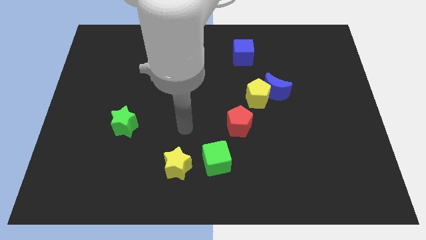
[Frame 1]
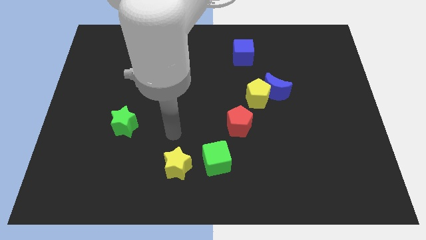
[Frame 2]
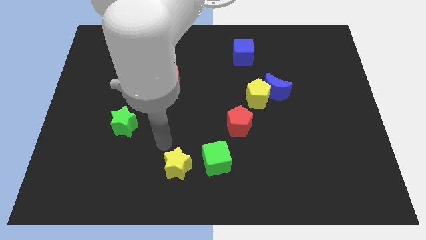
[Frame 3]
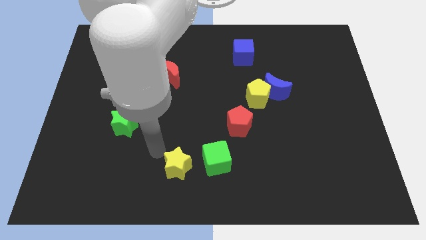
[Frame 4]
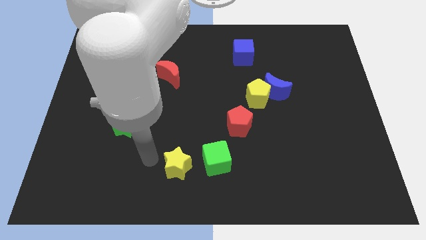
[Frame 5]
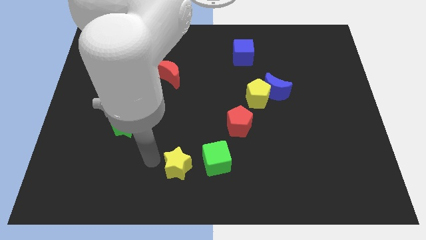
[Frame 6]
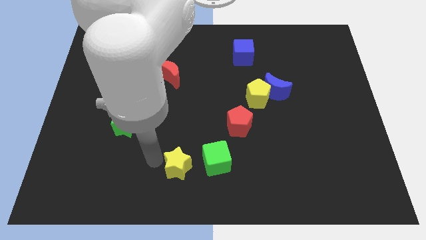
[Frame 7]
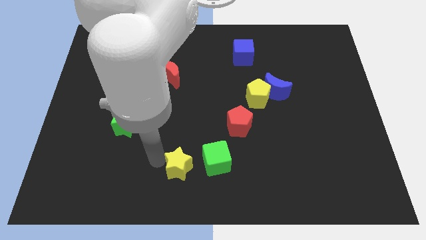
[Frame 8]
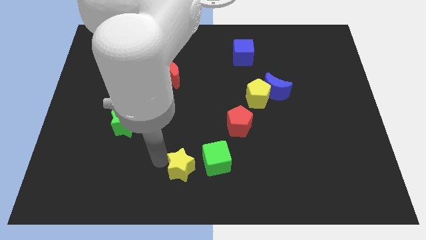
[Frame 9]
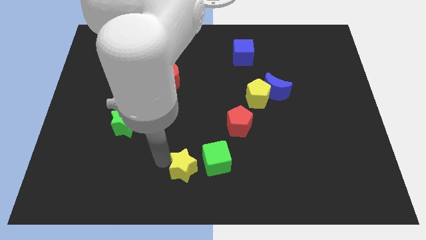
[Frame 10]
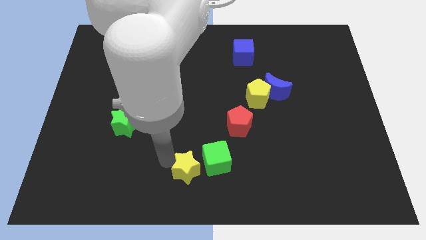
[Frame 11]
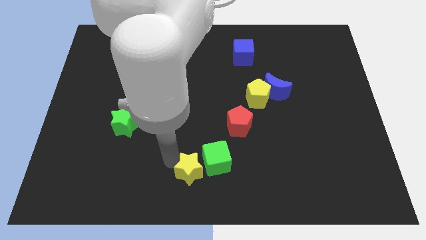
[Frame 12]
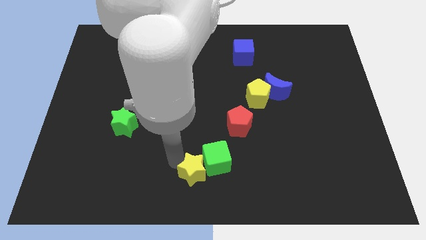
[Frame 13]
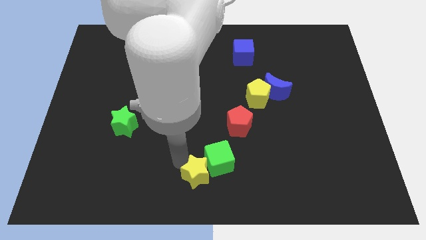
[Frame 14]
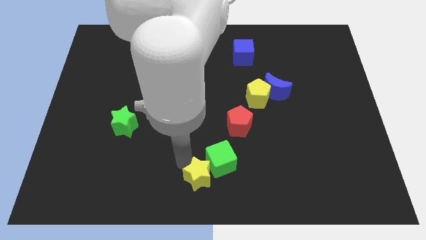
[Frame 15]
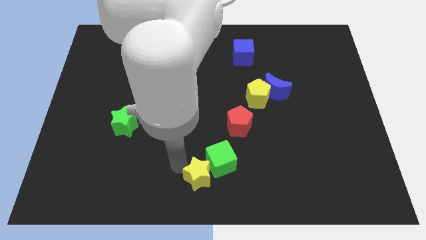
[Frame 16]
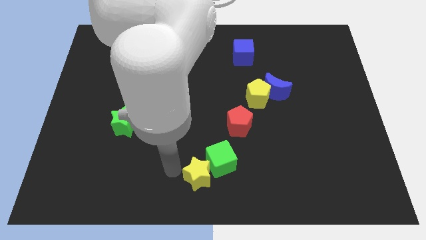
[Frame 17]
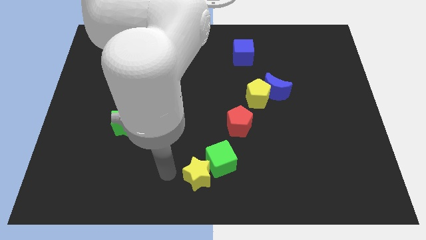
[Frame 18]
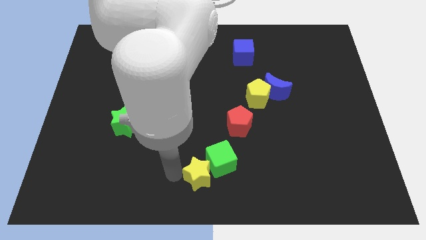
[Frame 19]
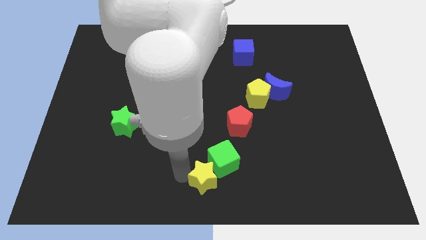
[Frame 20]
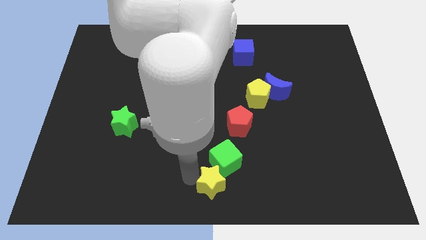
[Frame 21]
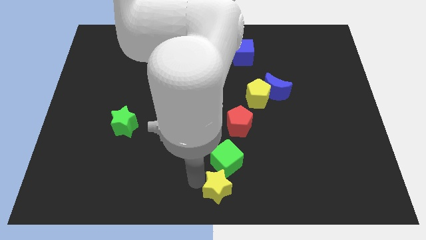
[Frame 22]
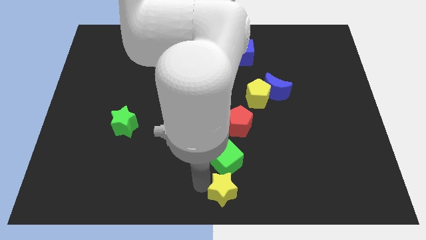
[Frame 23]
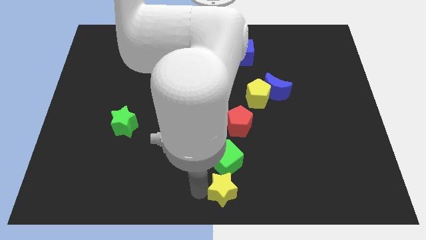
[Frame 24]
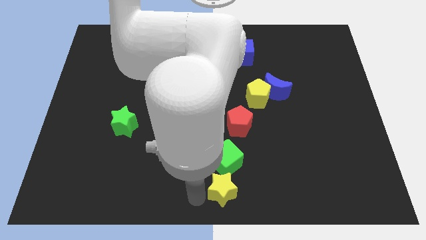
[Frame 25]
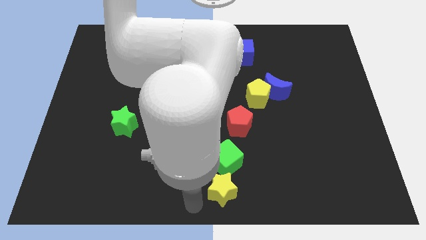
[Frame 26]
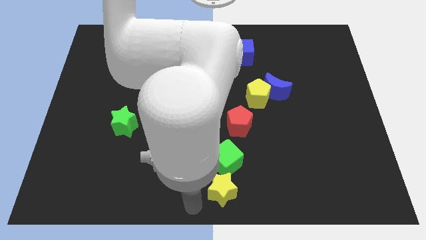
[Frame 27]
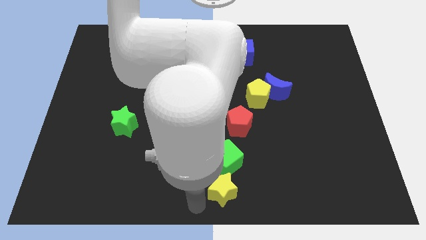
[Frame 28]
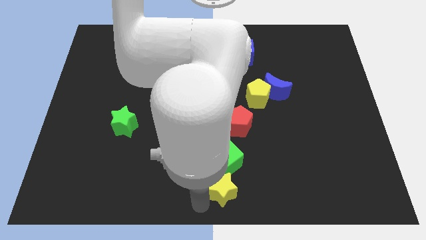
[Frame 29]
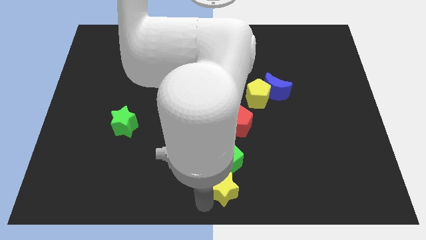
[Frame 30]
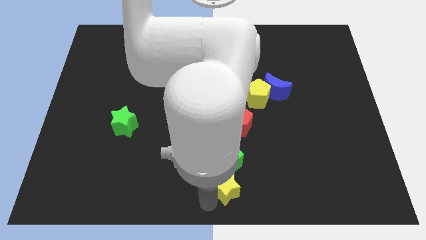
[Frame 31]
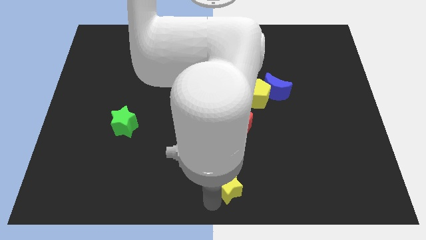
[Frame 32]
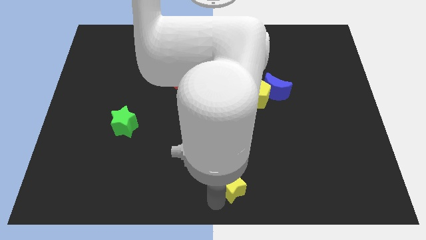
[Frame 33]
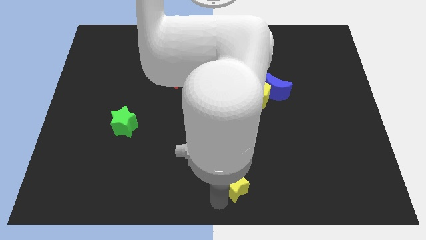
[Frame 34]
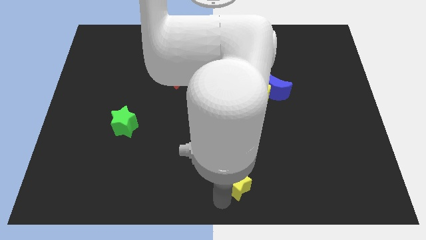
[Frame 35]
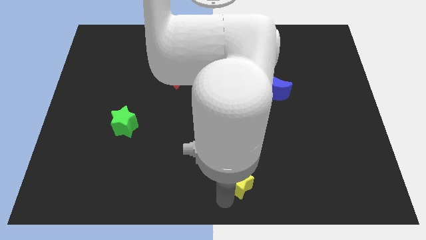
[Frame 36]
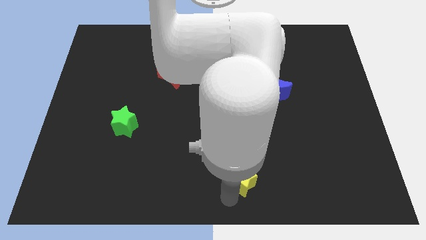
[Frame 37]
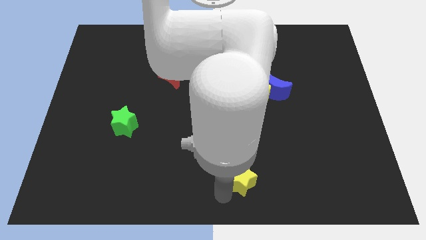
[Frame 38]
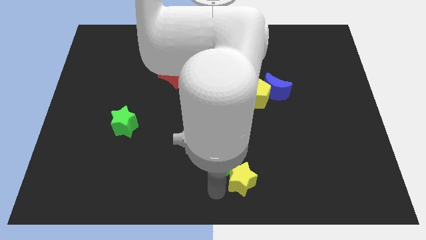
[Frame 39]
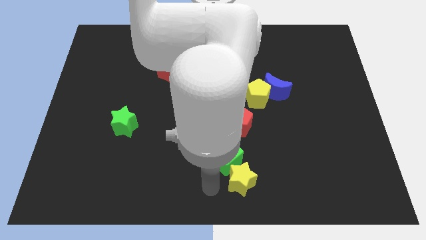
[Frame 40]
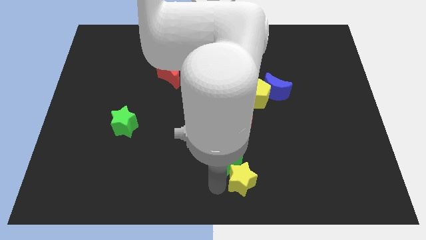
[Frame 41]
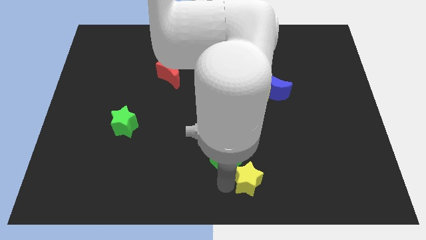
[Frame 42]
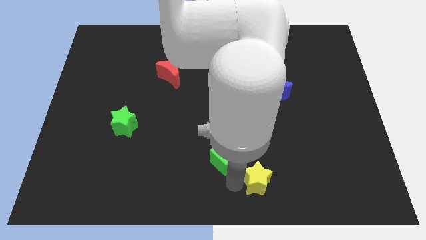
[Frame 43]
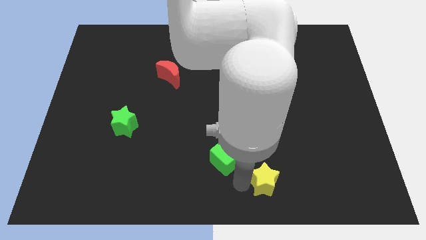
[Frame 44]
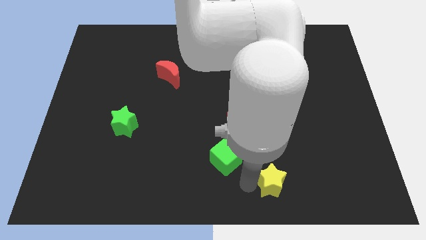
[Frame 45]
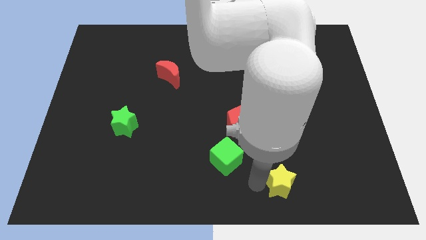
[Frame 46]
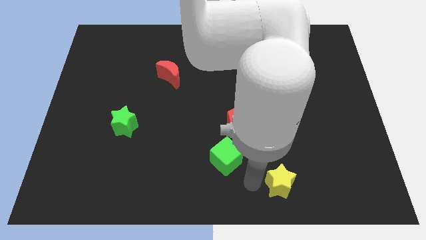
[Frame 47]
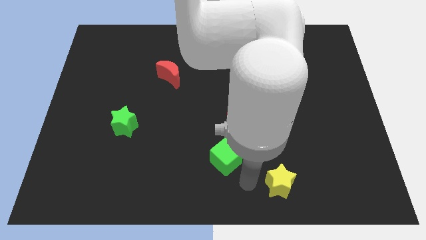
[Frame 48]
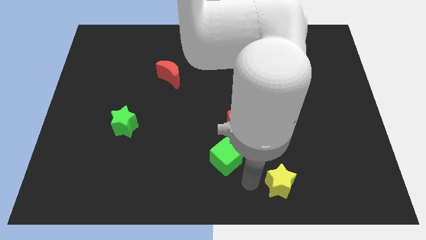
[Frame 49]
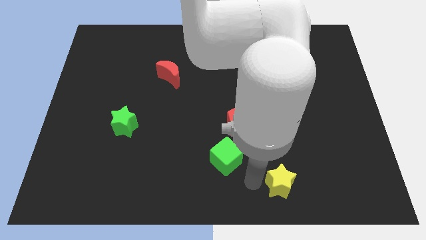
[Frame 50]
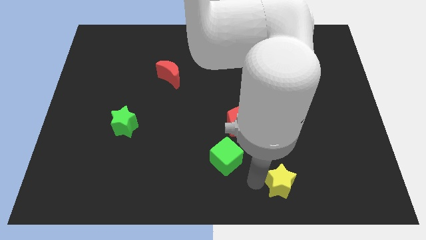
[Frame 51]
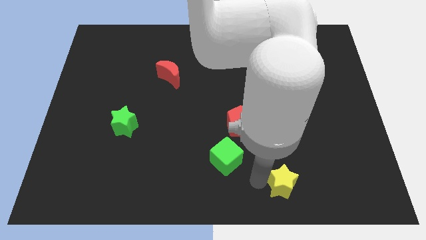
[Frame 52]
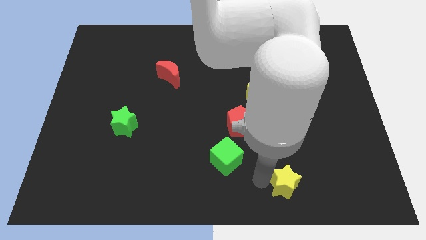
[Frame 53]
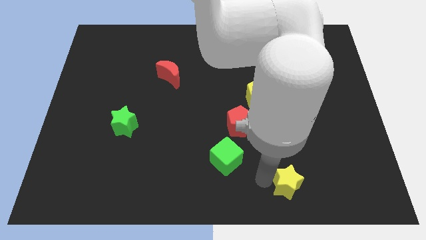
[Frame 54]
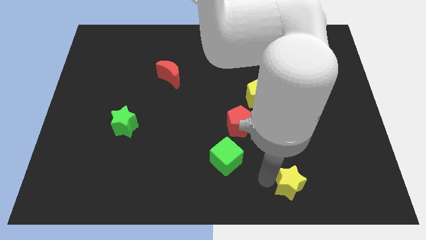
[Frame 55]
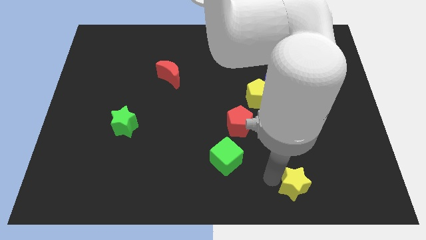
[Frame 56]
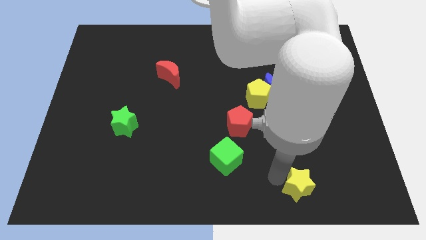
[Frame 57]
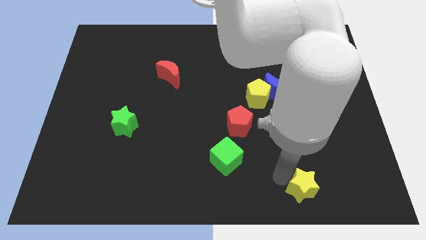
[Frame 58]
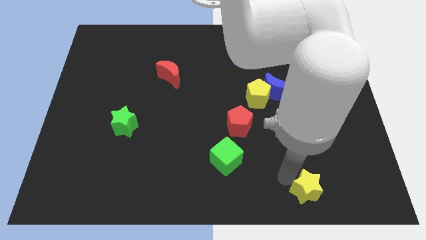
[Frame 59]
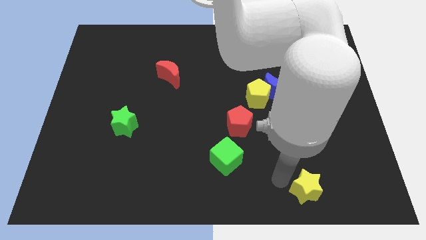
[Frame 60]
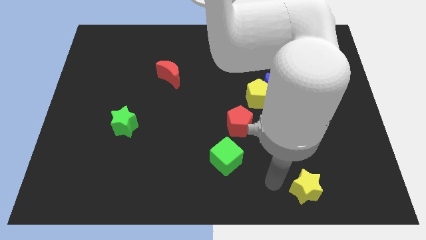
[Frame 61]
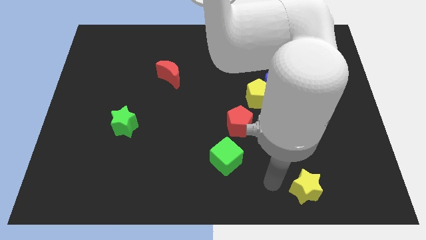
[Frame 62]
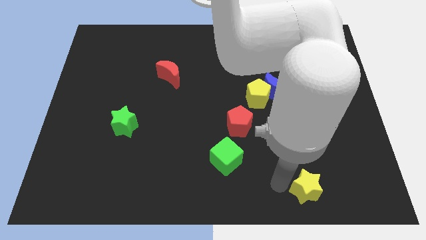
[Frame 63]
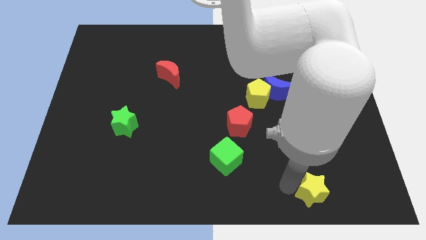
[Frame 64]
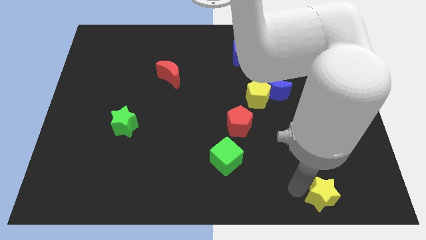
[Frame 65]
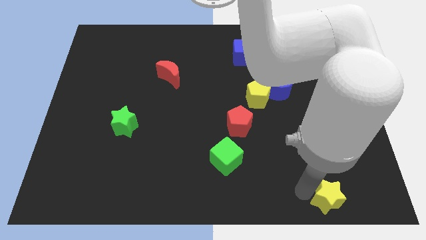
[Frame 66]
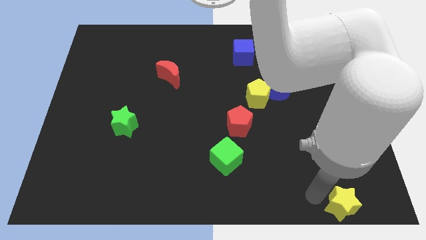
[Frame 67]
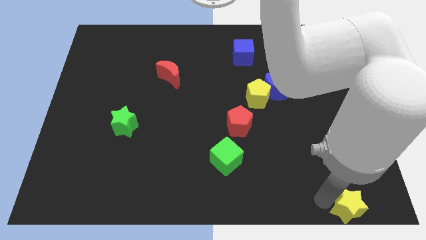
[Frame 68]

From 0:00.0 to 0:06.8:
push the yellow star to the bottom right of the board
